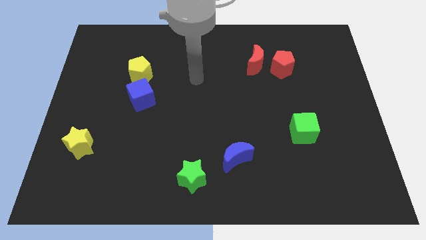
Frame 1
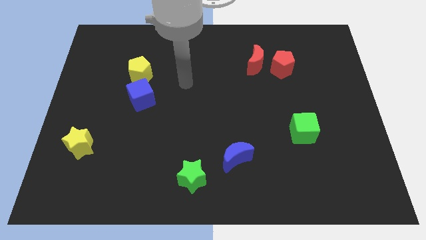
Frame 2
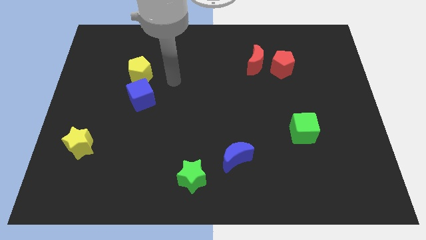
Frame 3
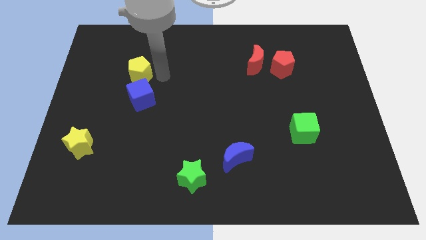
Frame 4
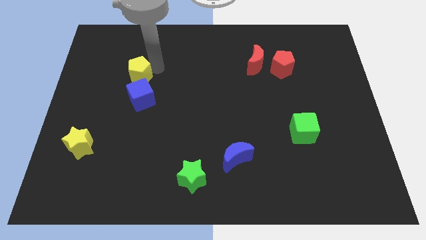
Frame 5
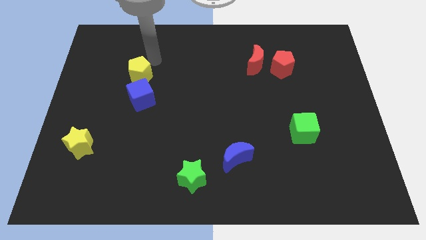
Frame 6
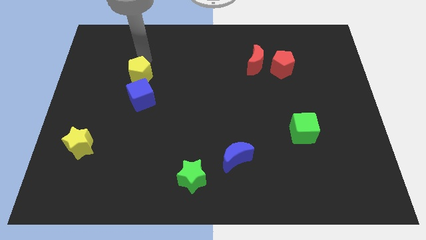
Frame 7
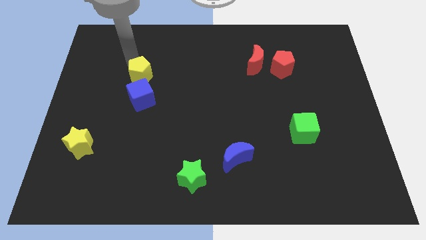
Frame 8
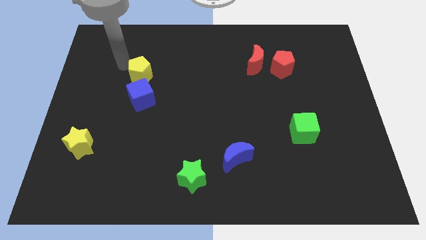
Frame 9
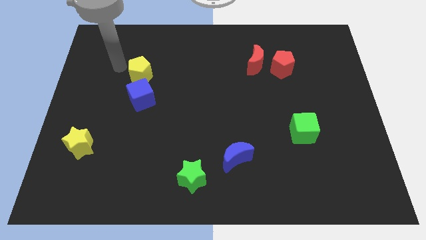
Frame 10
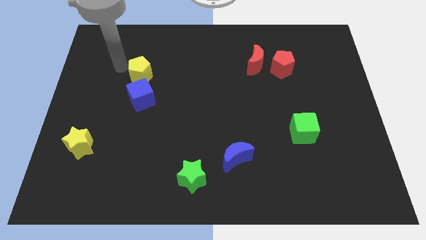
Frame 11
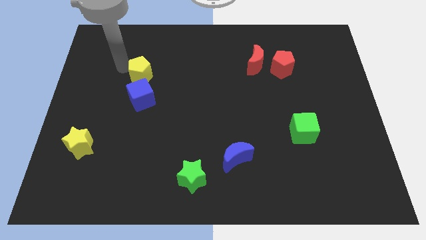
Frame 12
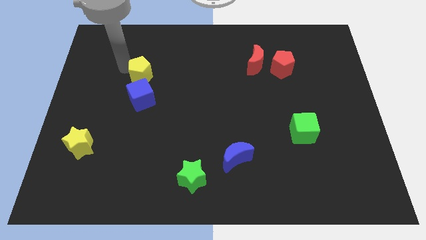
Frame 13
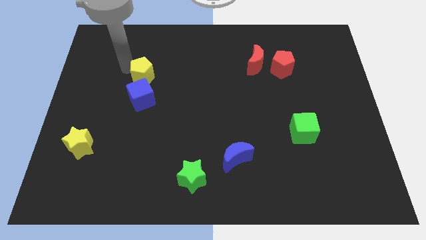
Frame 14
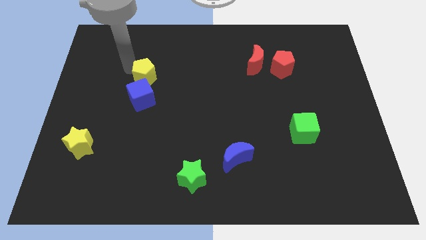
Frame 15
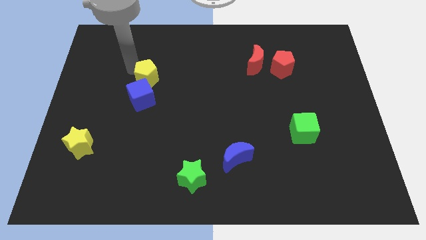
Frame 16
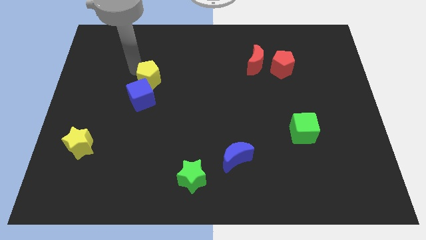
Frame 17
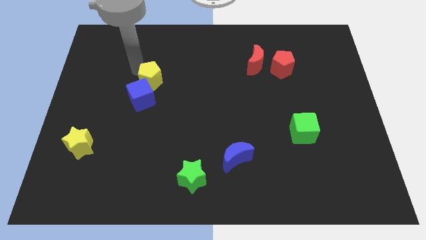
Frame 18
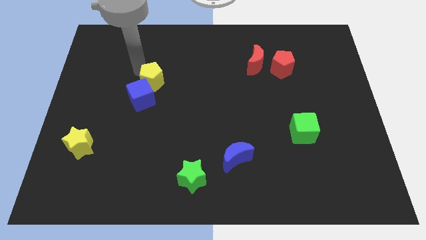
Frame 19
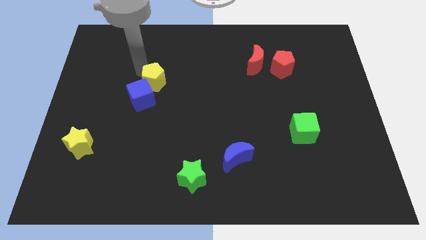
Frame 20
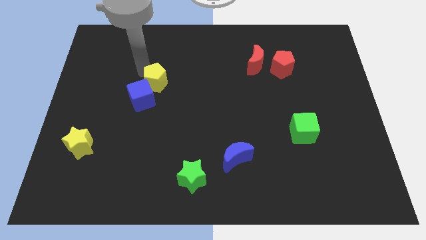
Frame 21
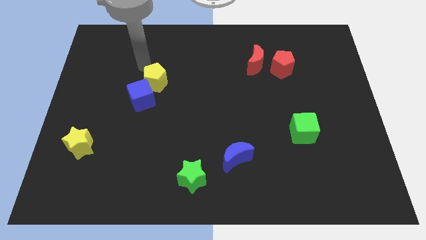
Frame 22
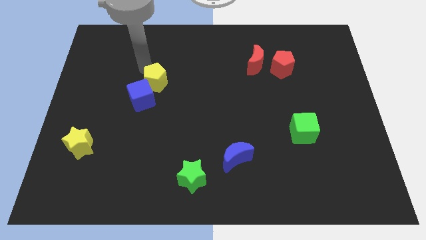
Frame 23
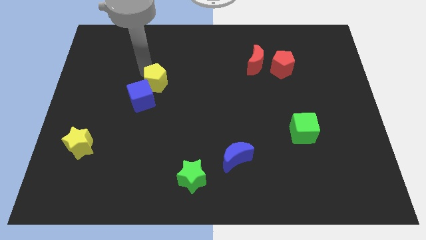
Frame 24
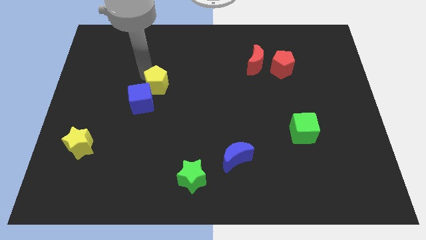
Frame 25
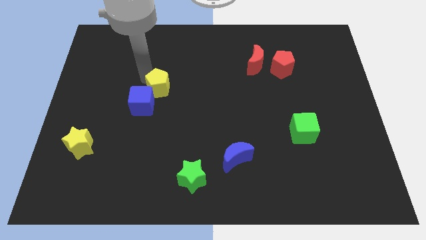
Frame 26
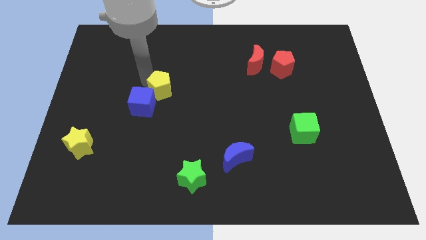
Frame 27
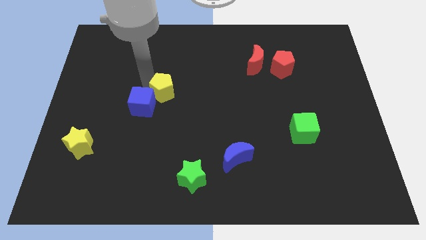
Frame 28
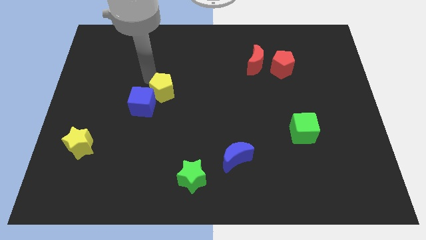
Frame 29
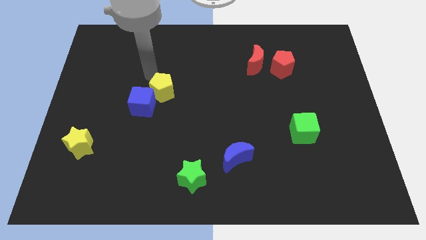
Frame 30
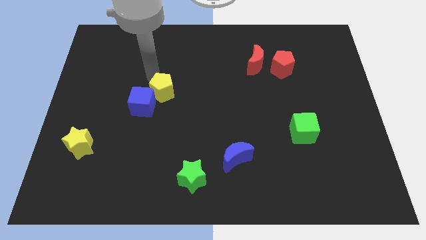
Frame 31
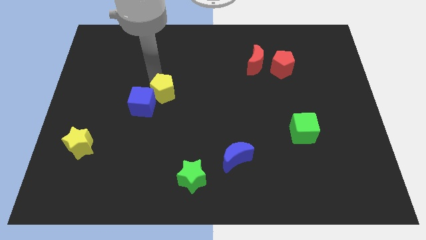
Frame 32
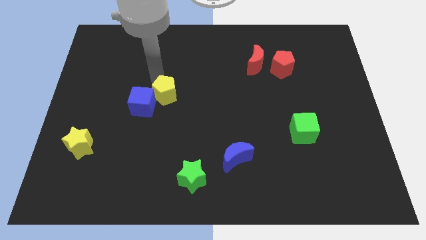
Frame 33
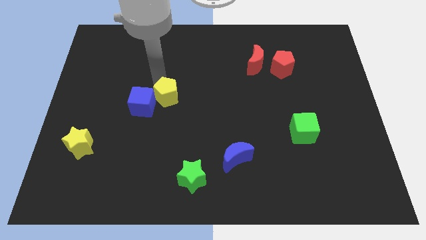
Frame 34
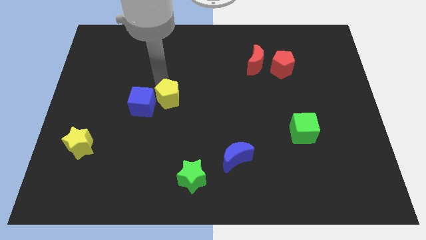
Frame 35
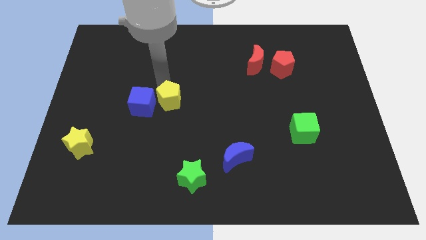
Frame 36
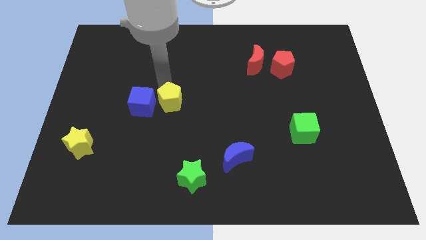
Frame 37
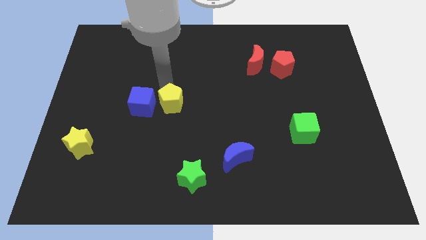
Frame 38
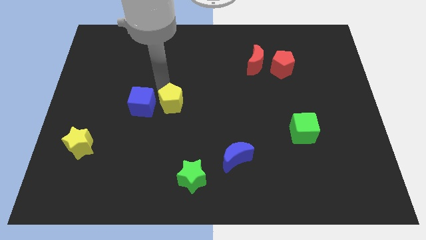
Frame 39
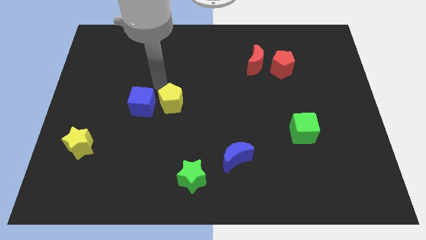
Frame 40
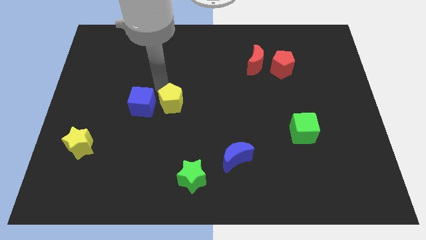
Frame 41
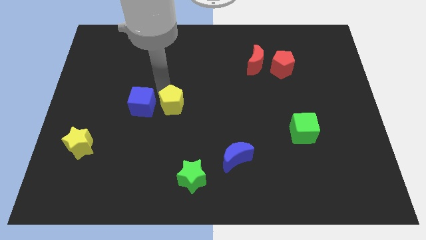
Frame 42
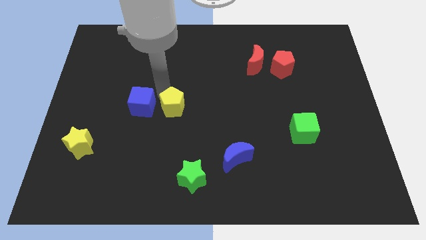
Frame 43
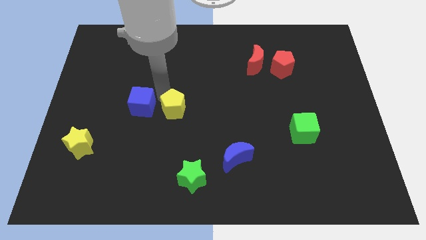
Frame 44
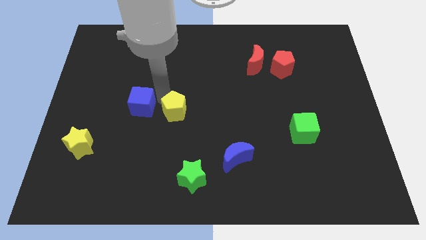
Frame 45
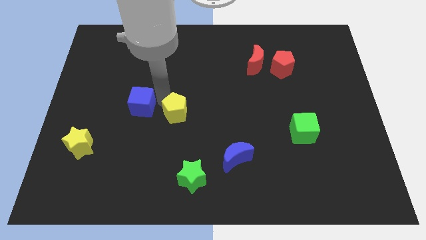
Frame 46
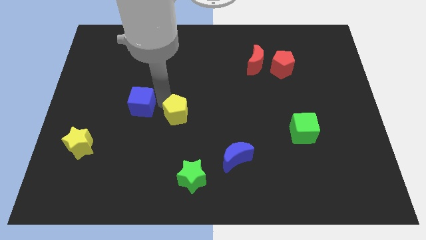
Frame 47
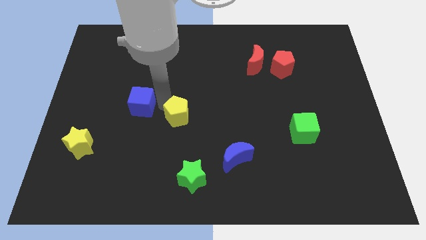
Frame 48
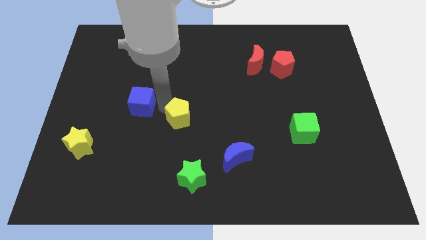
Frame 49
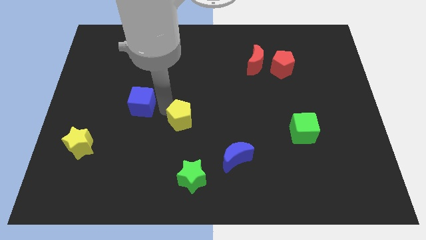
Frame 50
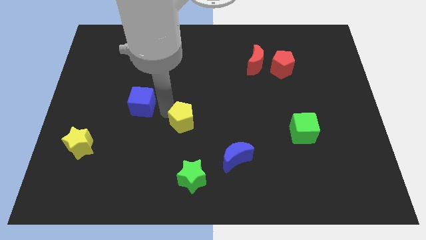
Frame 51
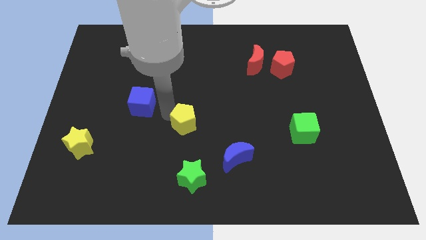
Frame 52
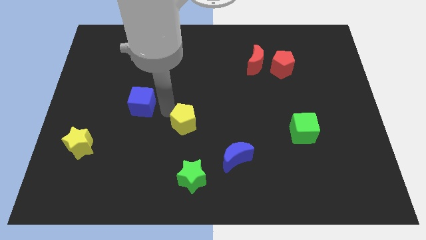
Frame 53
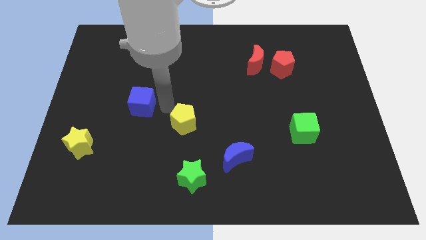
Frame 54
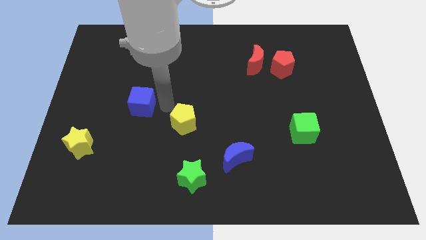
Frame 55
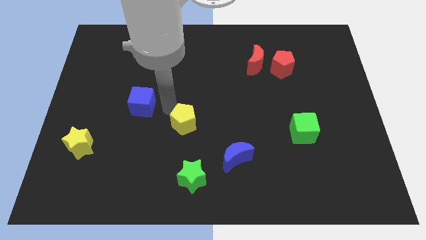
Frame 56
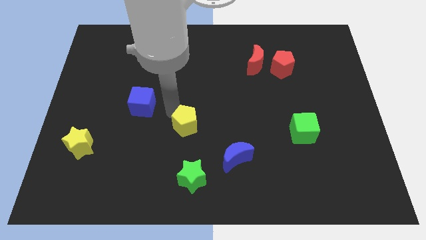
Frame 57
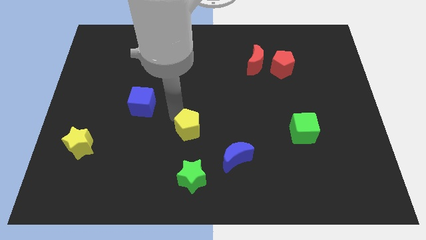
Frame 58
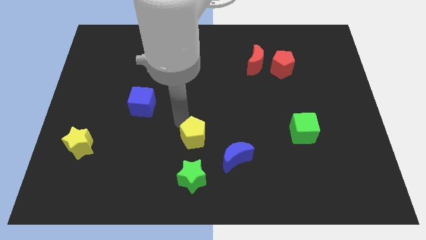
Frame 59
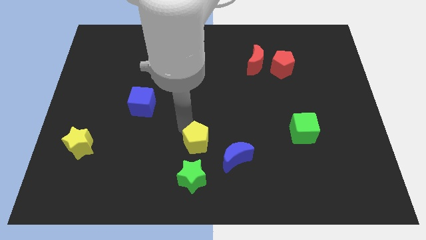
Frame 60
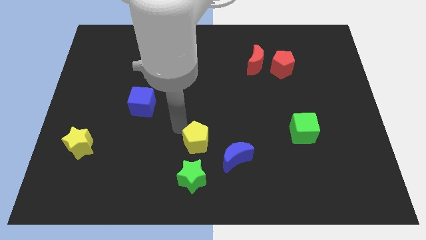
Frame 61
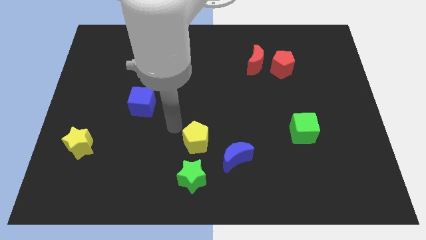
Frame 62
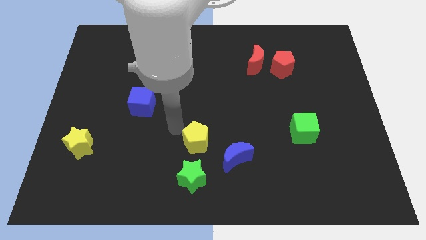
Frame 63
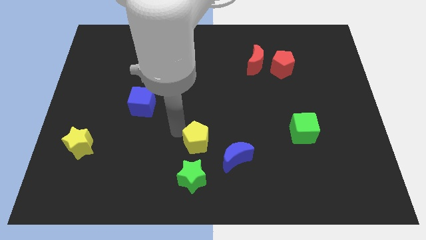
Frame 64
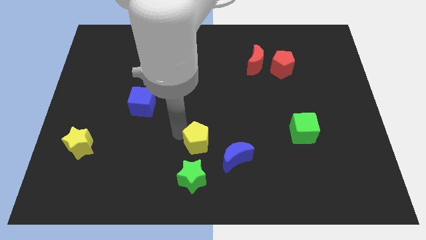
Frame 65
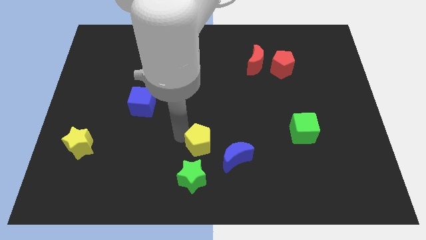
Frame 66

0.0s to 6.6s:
move the yellow pentagon to the top right of the green star

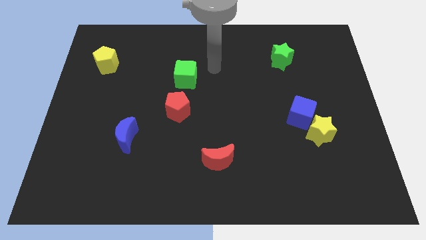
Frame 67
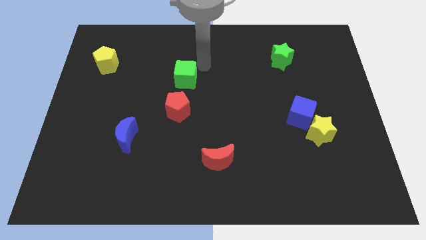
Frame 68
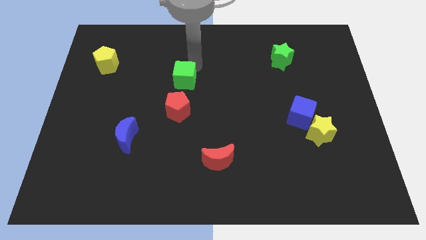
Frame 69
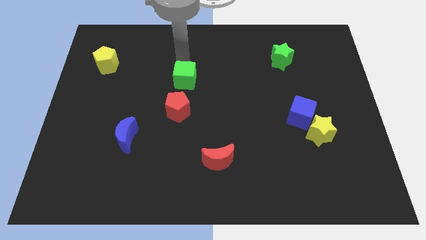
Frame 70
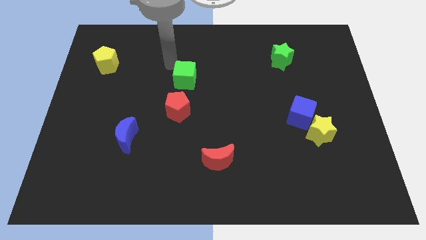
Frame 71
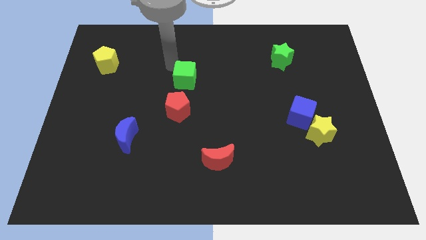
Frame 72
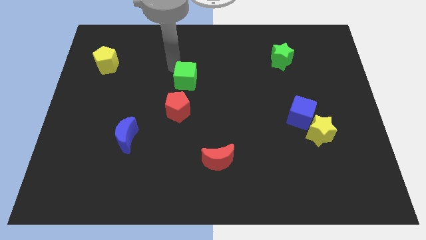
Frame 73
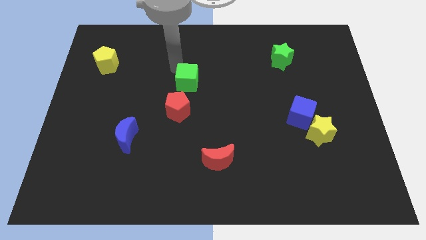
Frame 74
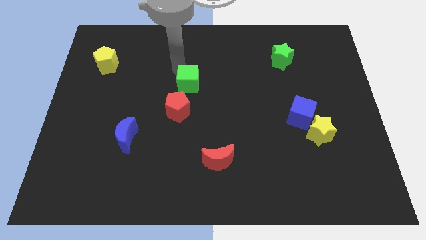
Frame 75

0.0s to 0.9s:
put the green cube to the top right side of the red pentagon
